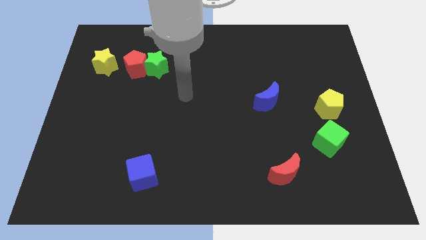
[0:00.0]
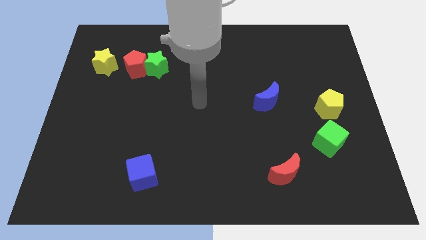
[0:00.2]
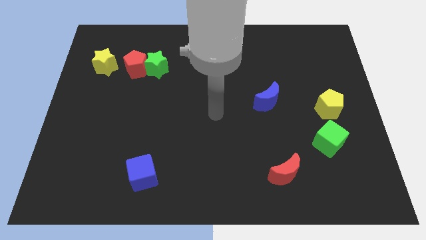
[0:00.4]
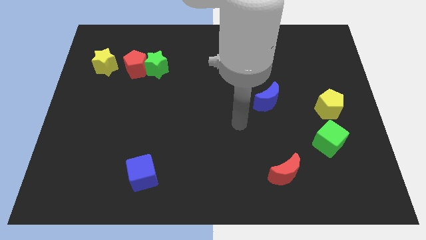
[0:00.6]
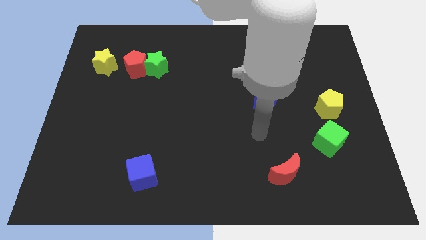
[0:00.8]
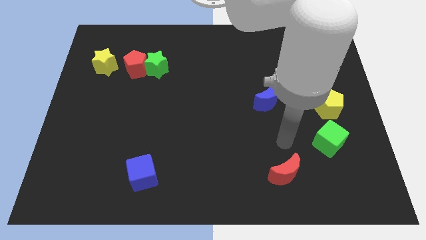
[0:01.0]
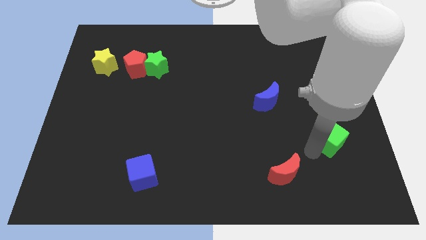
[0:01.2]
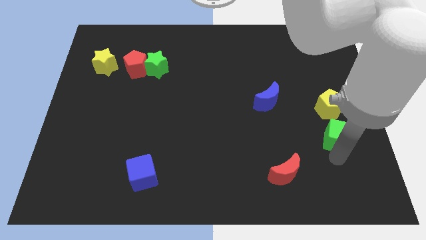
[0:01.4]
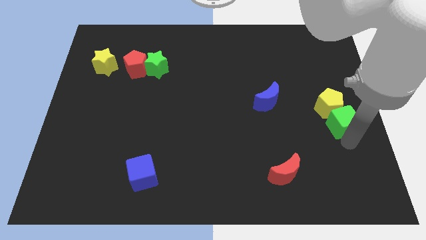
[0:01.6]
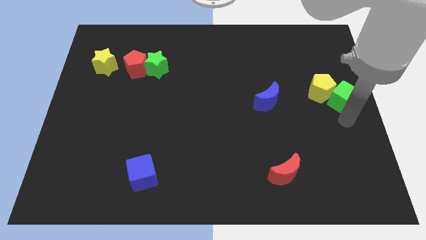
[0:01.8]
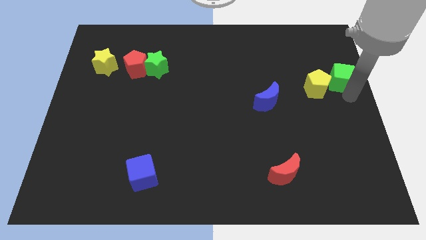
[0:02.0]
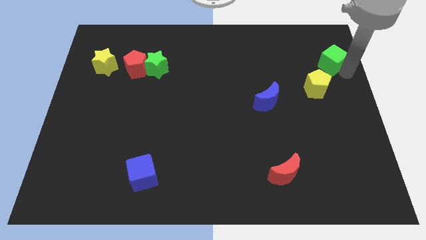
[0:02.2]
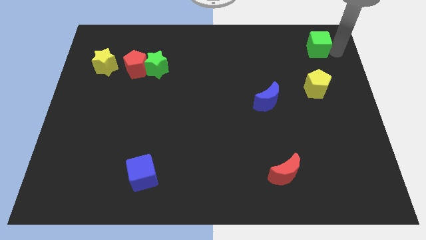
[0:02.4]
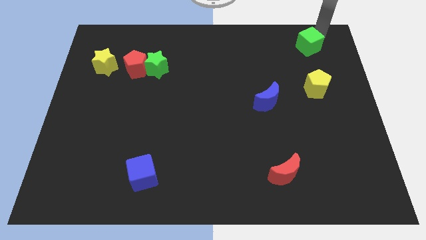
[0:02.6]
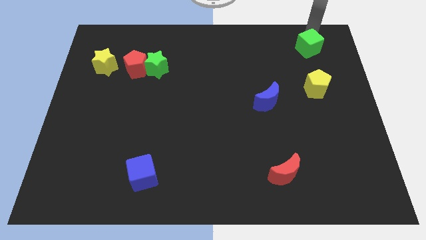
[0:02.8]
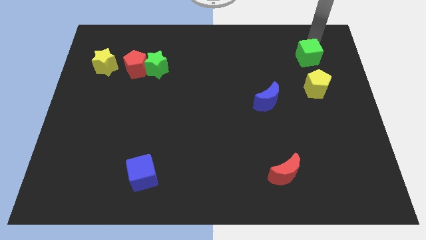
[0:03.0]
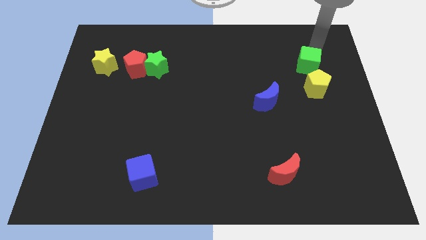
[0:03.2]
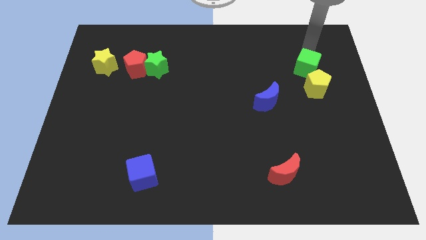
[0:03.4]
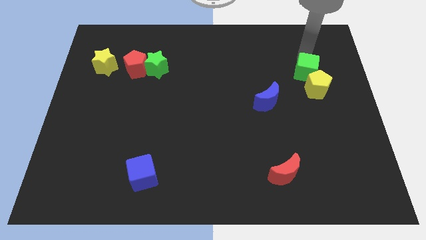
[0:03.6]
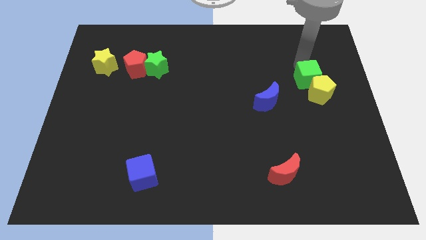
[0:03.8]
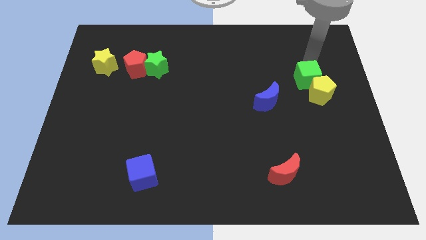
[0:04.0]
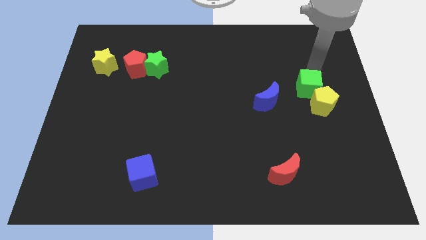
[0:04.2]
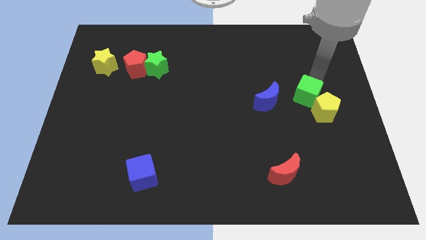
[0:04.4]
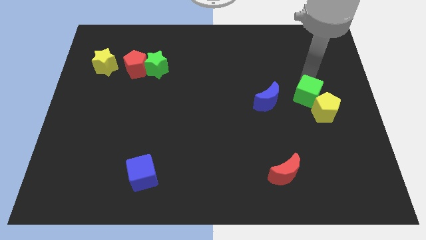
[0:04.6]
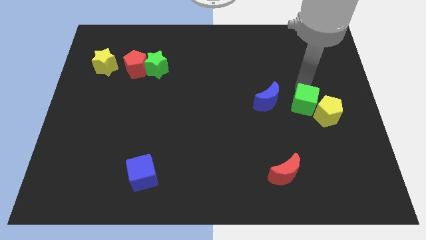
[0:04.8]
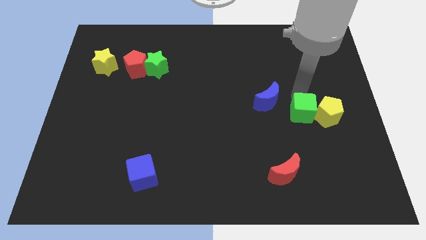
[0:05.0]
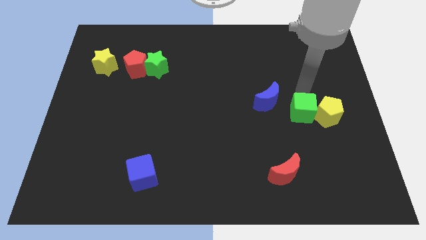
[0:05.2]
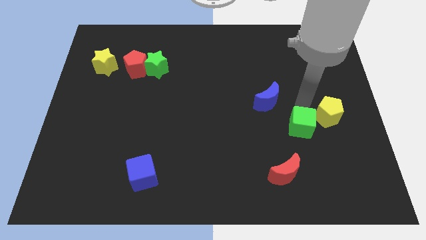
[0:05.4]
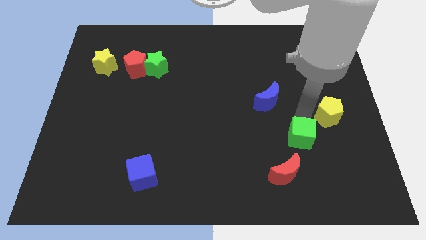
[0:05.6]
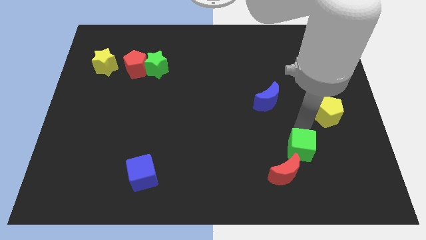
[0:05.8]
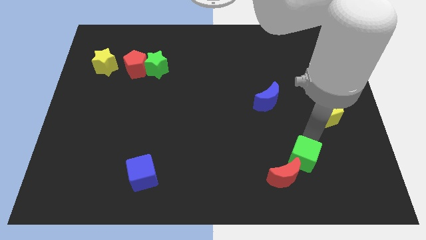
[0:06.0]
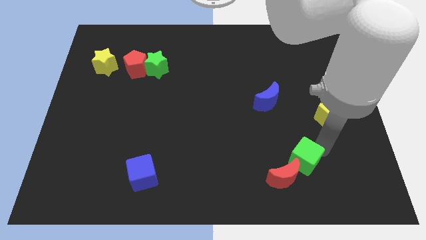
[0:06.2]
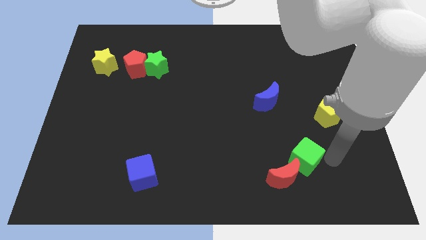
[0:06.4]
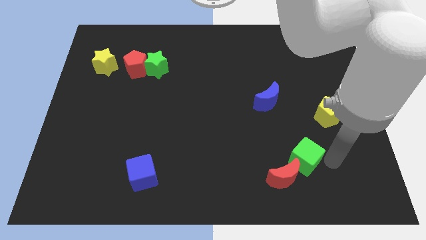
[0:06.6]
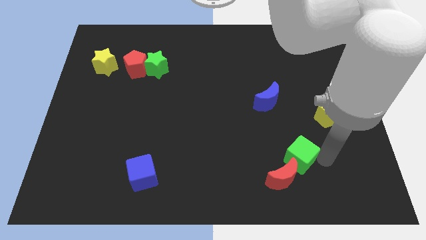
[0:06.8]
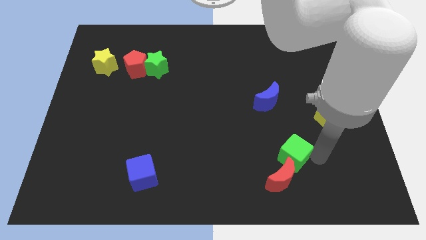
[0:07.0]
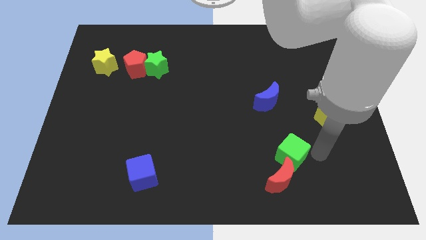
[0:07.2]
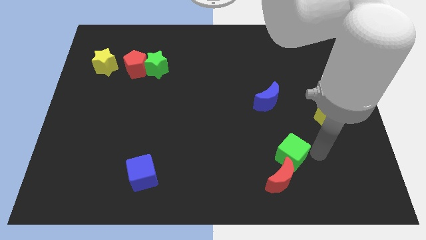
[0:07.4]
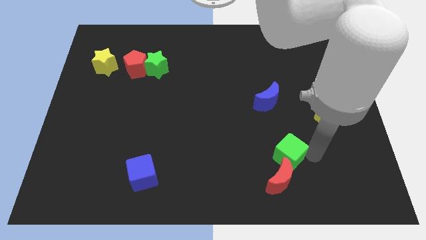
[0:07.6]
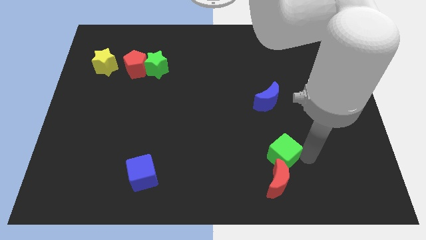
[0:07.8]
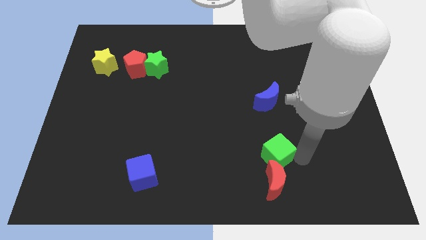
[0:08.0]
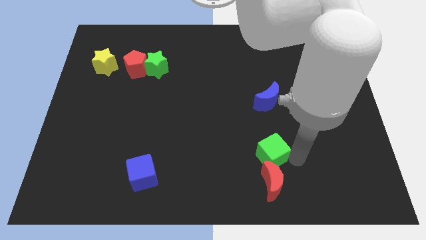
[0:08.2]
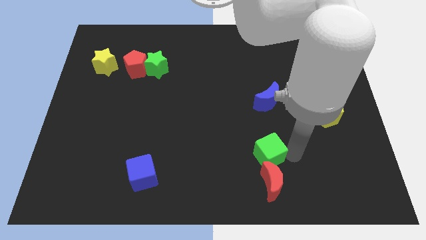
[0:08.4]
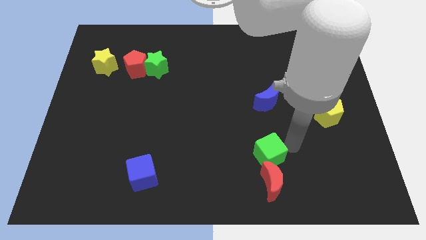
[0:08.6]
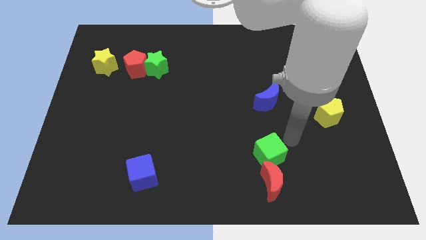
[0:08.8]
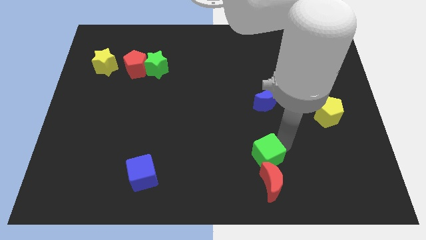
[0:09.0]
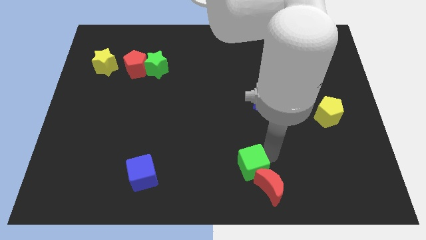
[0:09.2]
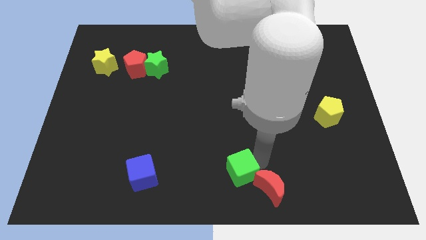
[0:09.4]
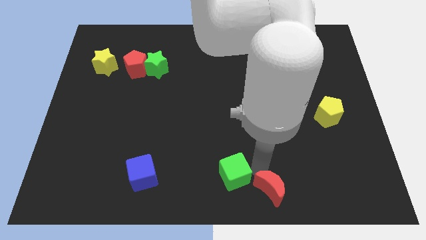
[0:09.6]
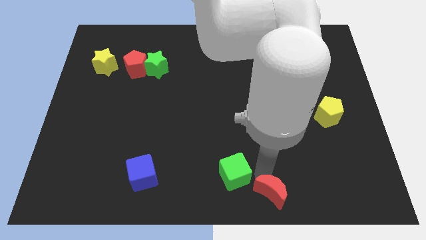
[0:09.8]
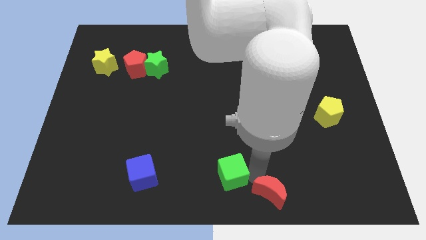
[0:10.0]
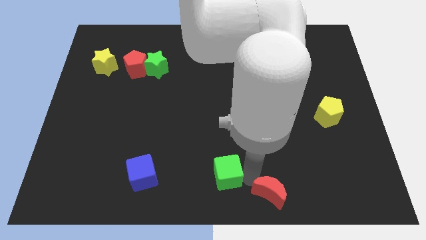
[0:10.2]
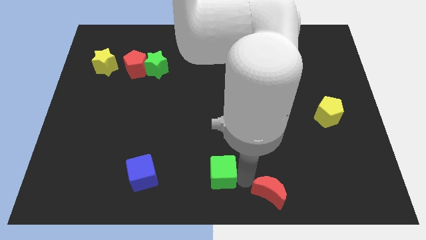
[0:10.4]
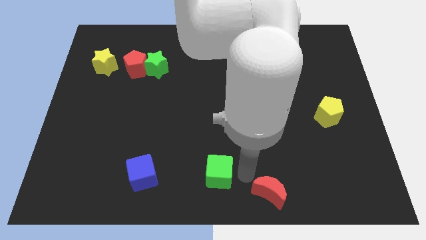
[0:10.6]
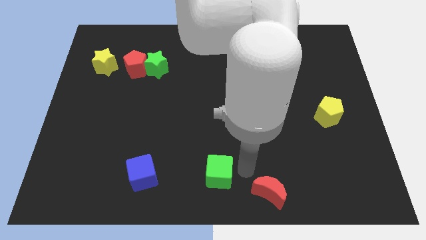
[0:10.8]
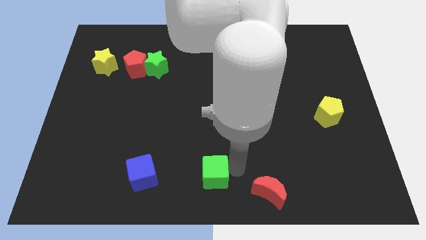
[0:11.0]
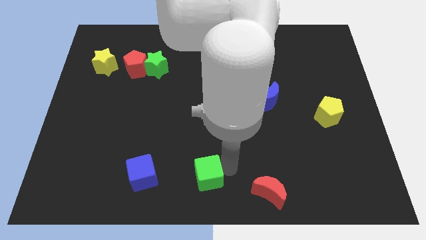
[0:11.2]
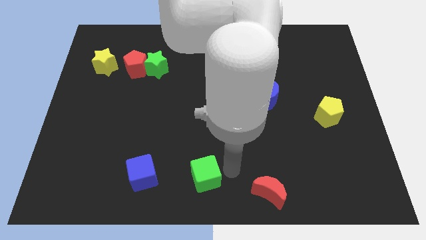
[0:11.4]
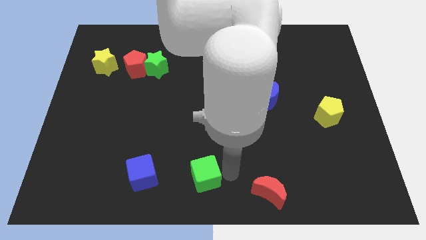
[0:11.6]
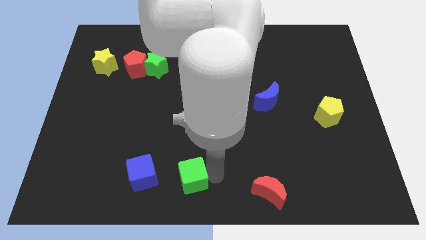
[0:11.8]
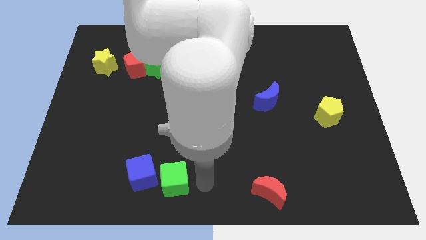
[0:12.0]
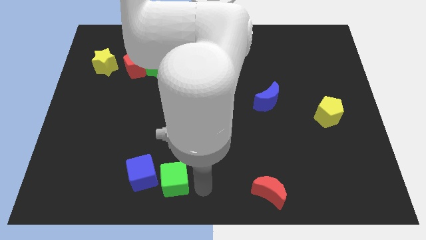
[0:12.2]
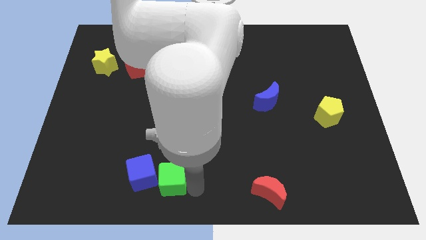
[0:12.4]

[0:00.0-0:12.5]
put the green cube towards the blue cube

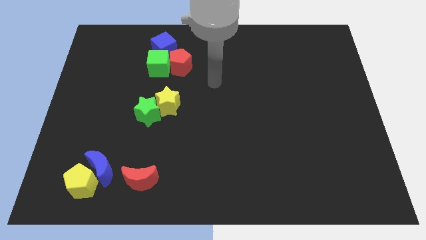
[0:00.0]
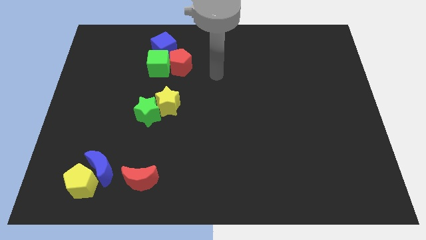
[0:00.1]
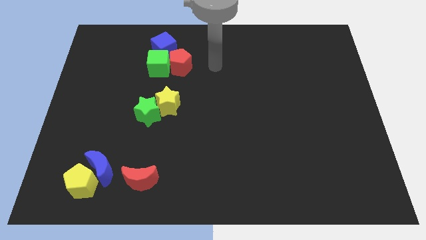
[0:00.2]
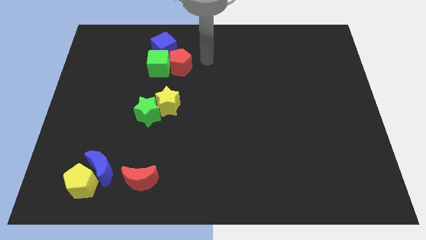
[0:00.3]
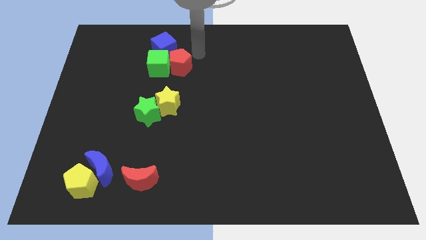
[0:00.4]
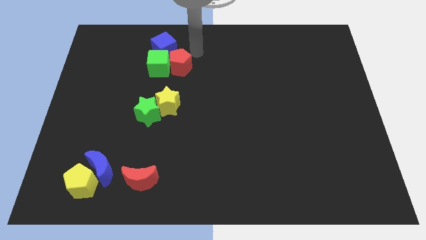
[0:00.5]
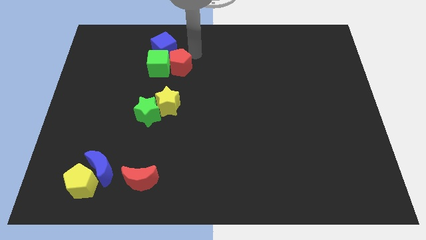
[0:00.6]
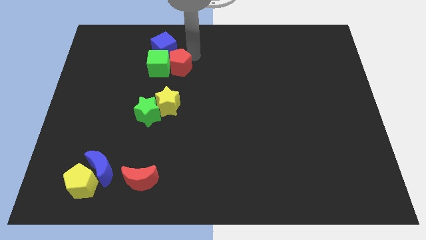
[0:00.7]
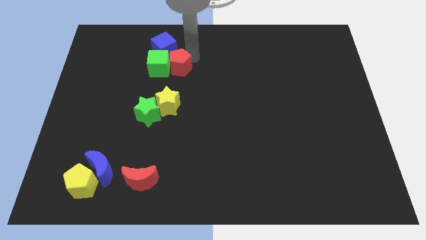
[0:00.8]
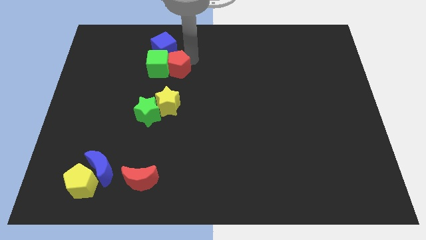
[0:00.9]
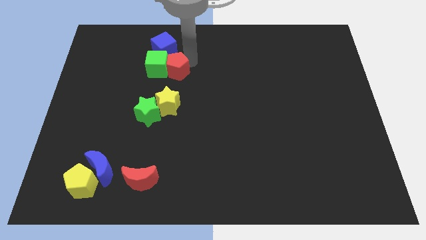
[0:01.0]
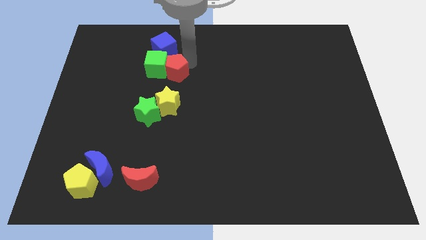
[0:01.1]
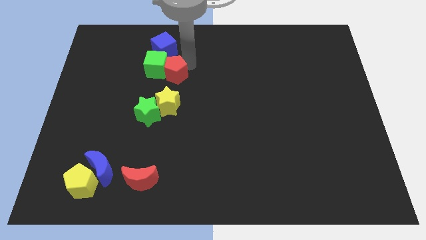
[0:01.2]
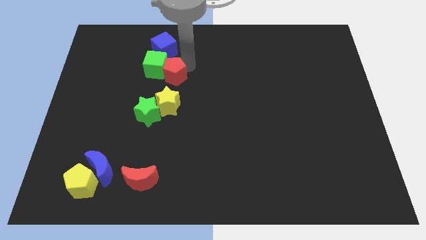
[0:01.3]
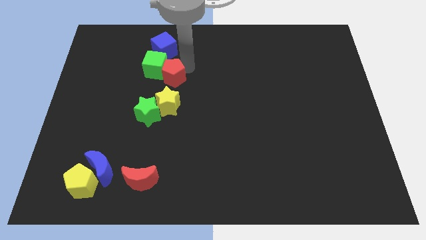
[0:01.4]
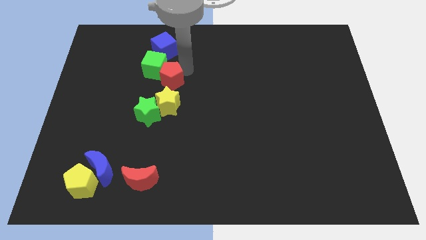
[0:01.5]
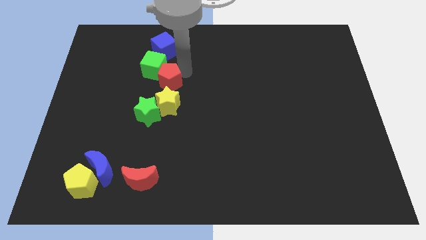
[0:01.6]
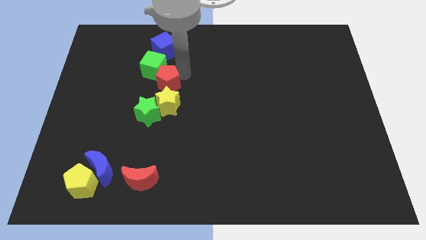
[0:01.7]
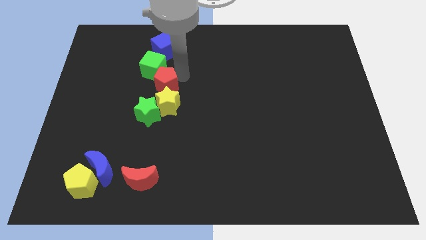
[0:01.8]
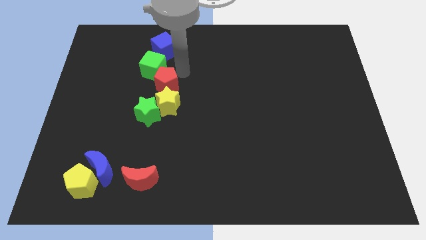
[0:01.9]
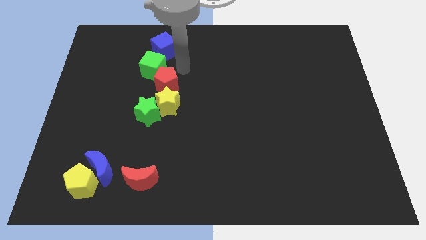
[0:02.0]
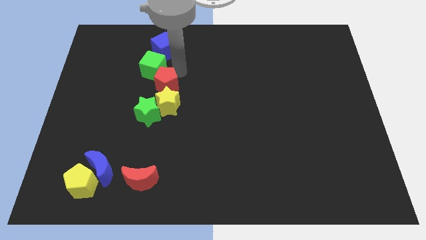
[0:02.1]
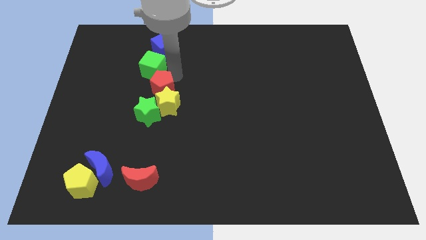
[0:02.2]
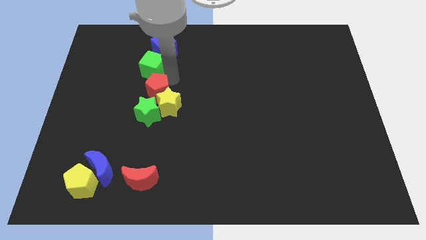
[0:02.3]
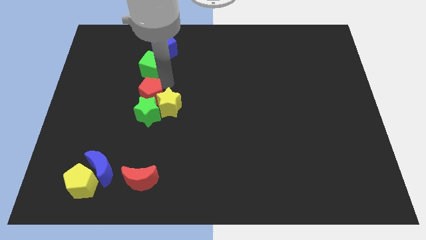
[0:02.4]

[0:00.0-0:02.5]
put the red pentagon to the green star
